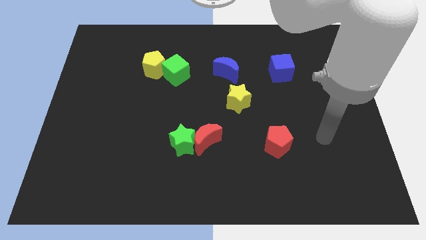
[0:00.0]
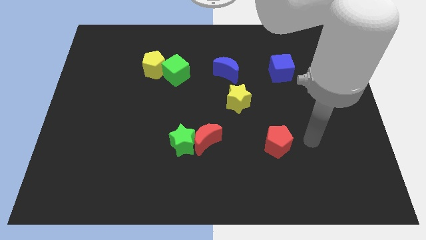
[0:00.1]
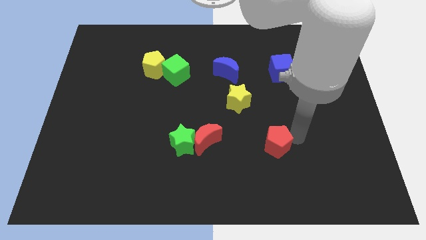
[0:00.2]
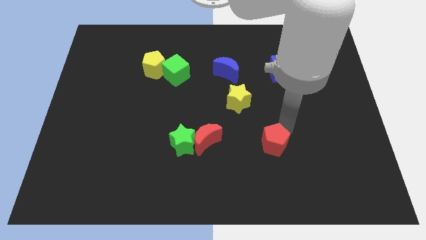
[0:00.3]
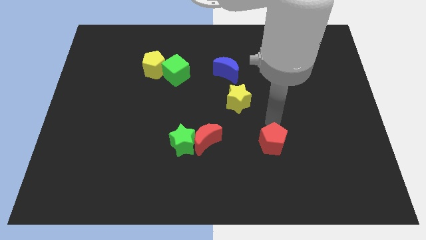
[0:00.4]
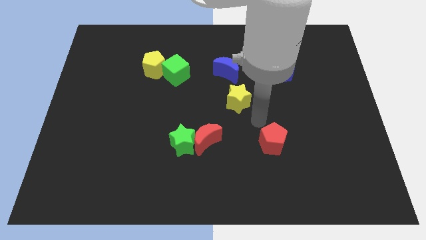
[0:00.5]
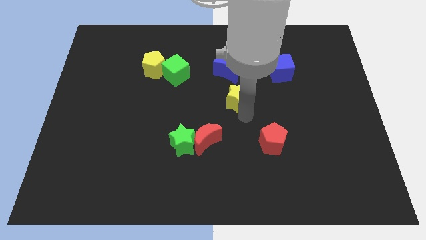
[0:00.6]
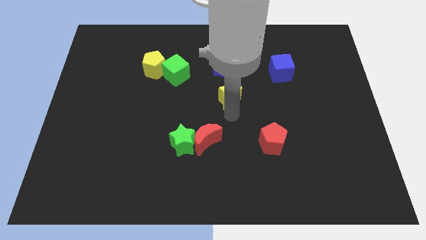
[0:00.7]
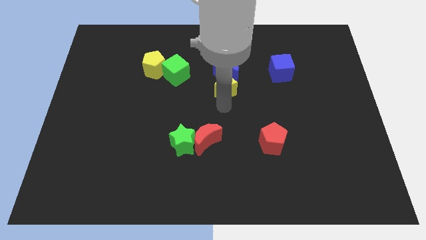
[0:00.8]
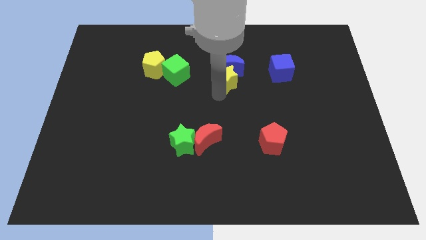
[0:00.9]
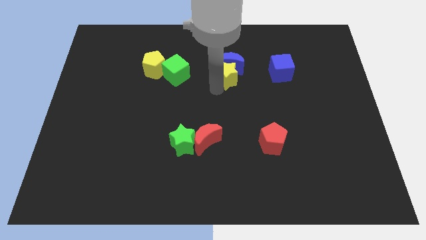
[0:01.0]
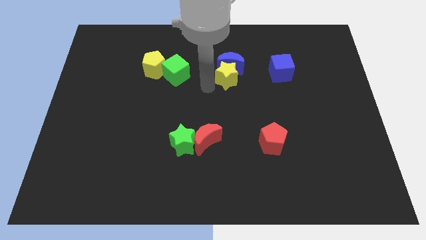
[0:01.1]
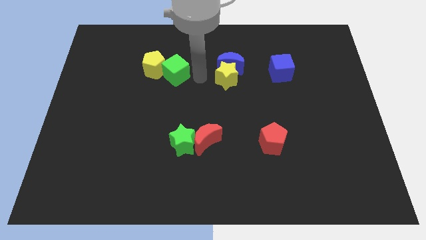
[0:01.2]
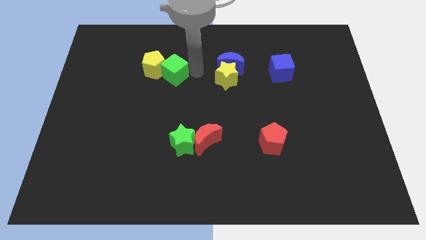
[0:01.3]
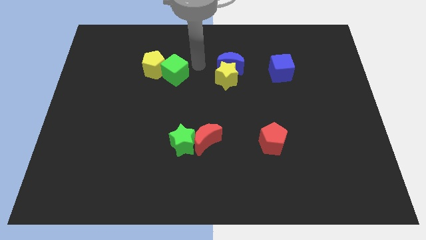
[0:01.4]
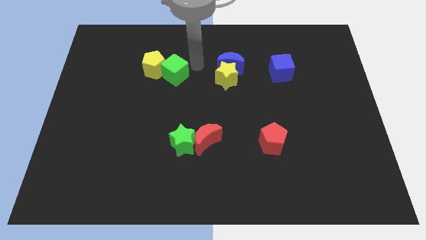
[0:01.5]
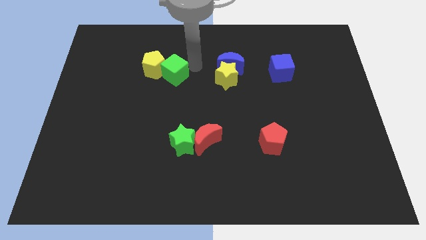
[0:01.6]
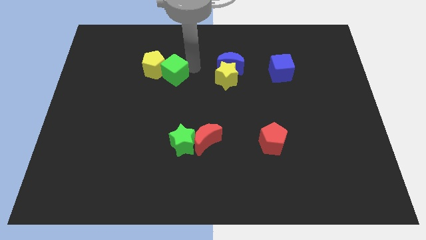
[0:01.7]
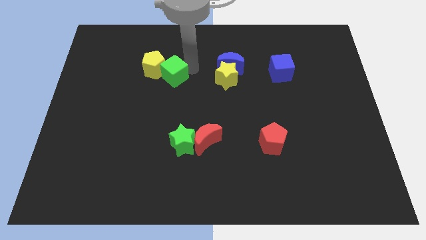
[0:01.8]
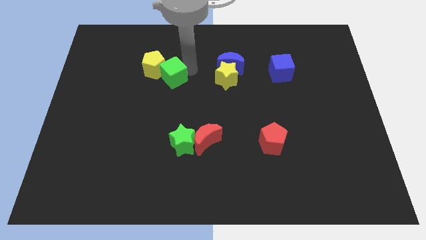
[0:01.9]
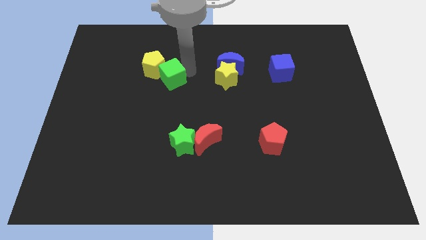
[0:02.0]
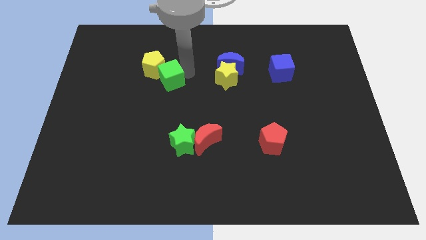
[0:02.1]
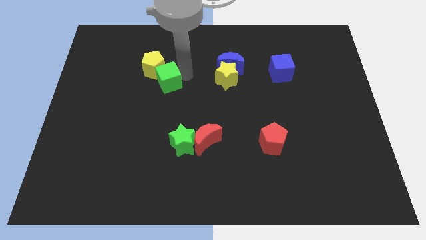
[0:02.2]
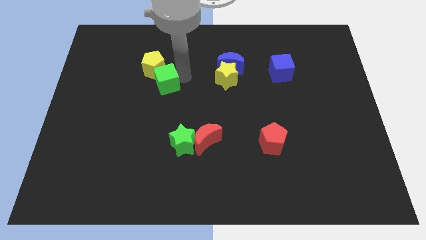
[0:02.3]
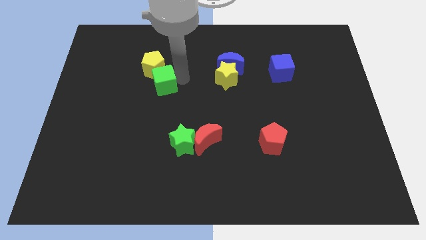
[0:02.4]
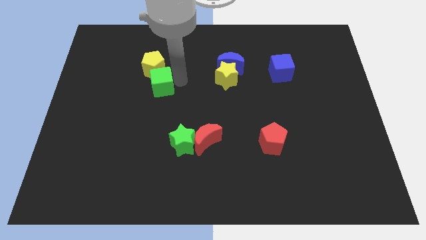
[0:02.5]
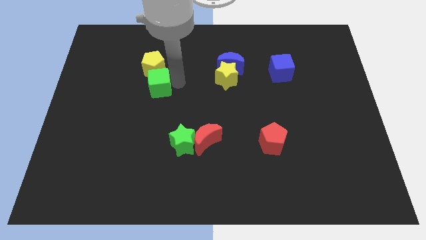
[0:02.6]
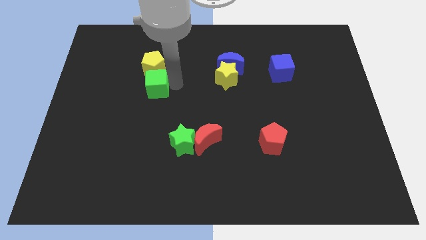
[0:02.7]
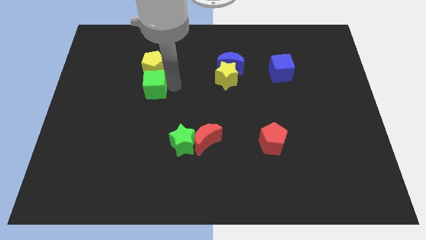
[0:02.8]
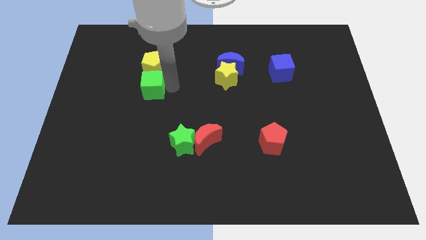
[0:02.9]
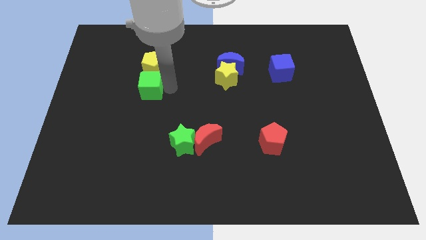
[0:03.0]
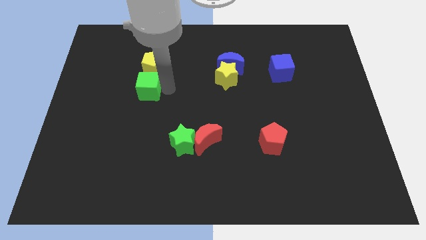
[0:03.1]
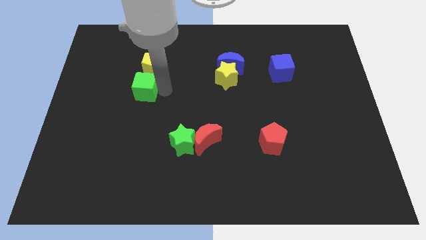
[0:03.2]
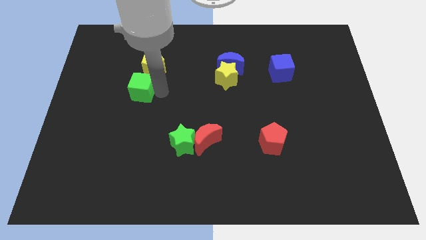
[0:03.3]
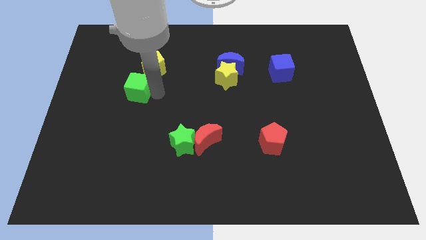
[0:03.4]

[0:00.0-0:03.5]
slightly slide the green cube to the left

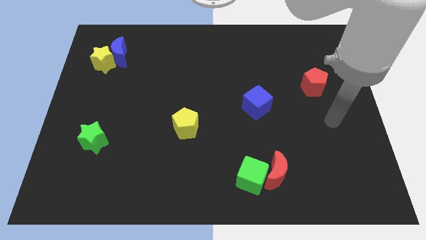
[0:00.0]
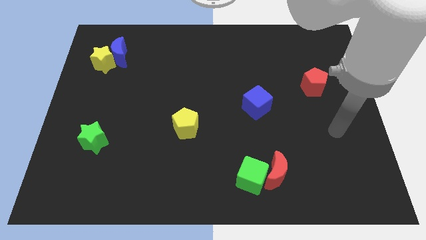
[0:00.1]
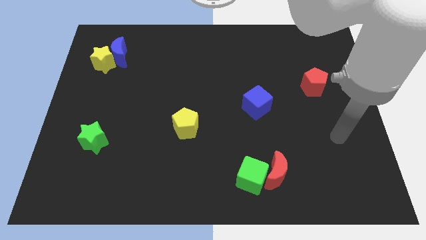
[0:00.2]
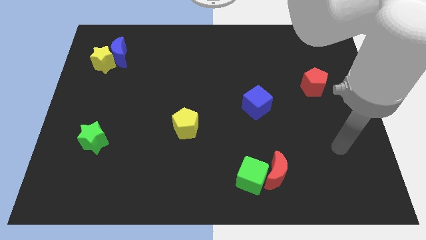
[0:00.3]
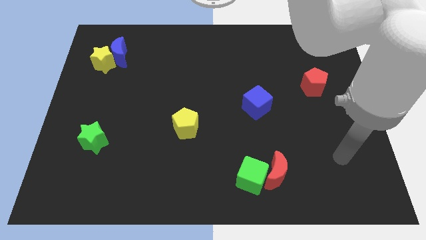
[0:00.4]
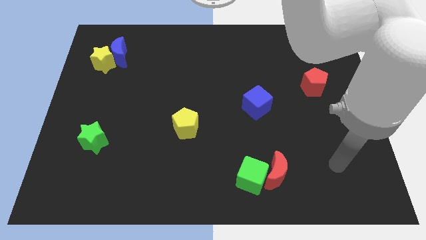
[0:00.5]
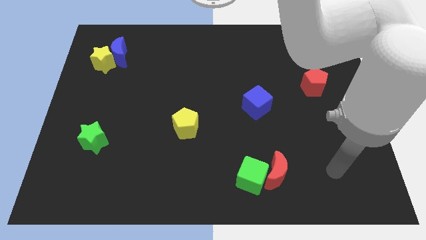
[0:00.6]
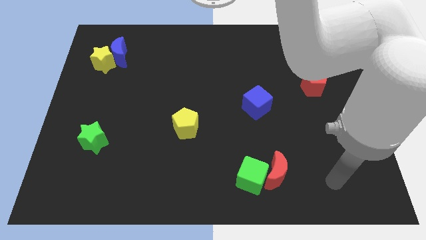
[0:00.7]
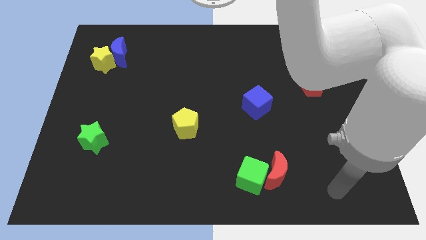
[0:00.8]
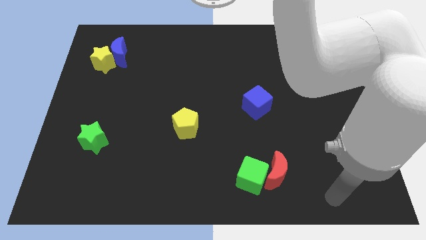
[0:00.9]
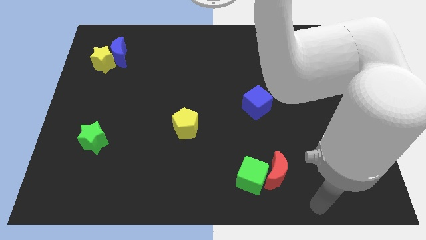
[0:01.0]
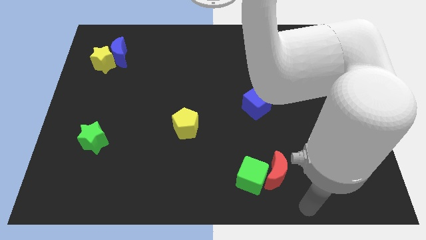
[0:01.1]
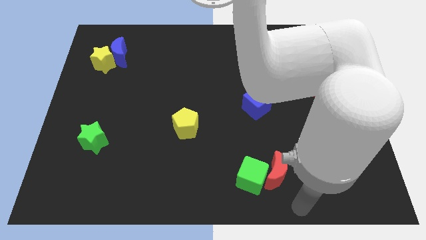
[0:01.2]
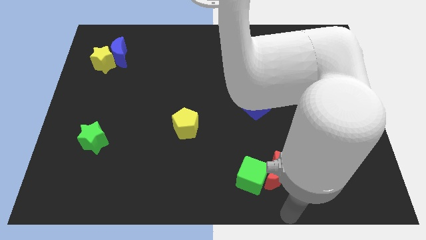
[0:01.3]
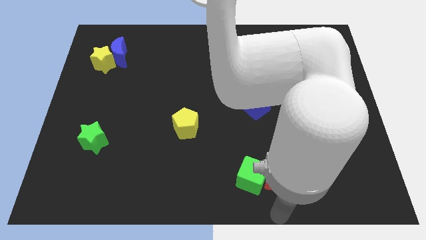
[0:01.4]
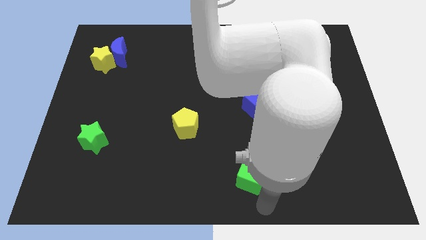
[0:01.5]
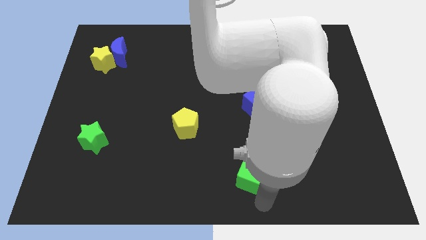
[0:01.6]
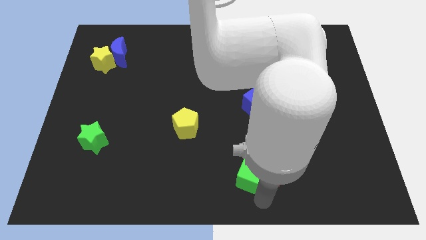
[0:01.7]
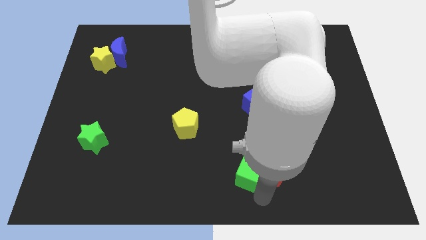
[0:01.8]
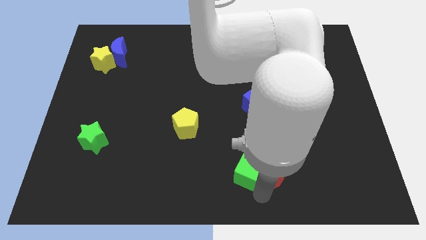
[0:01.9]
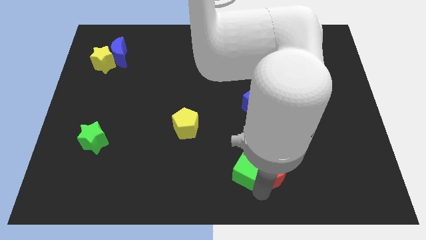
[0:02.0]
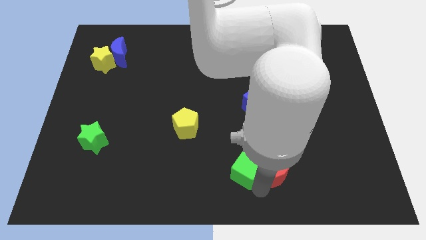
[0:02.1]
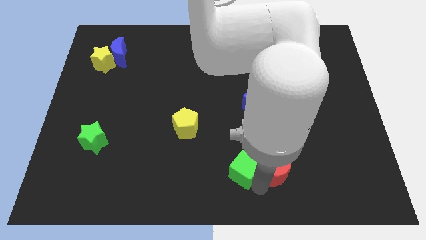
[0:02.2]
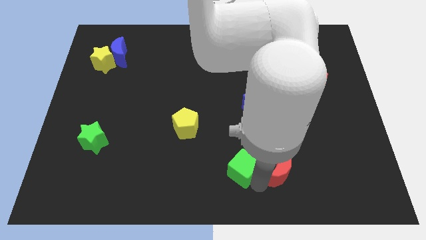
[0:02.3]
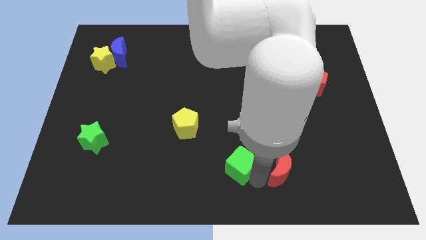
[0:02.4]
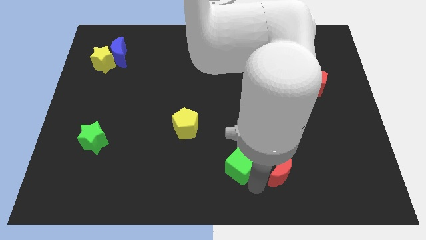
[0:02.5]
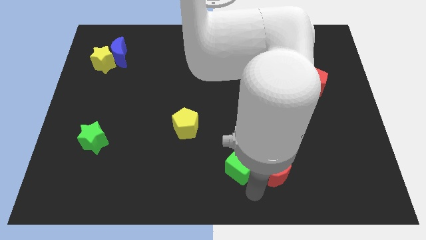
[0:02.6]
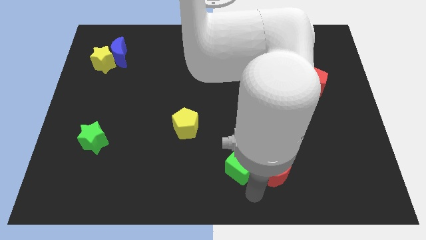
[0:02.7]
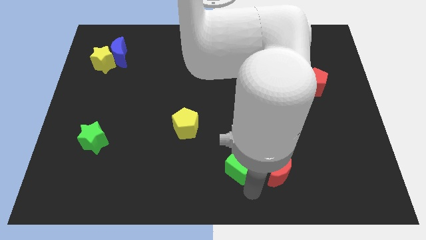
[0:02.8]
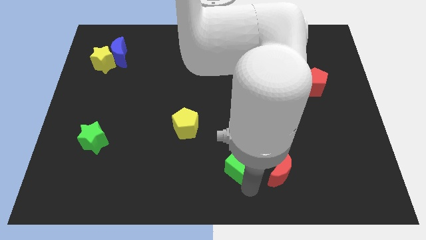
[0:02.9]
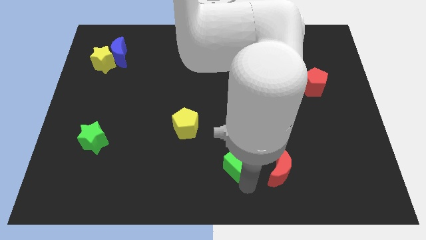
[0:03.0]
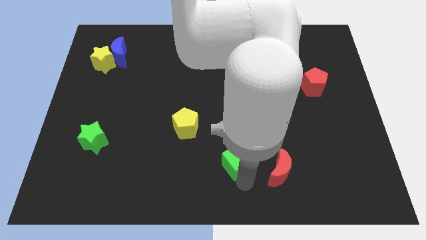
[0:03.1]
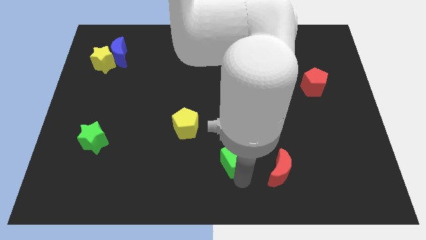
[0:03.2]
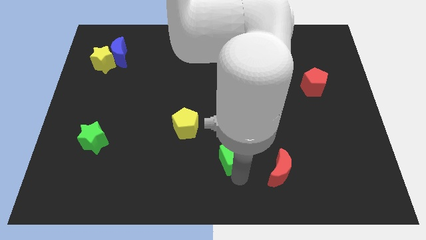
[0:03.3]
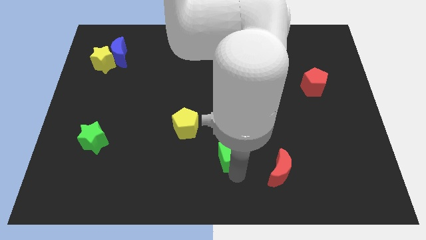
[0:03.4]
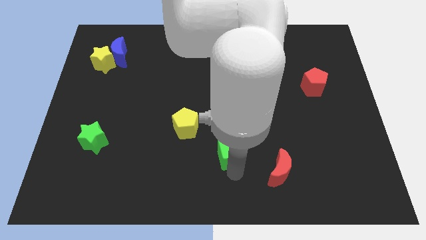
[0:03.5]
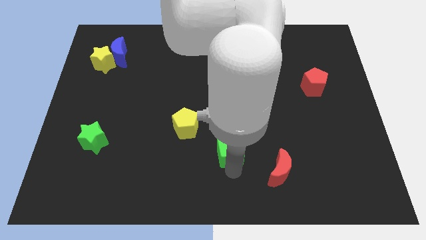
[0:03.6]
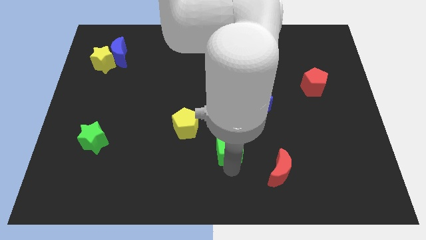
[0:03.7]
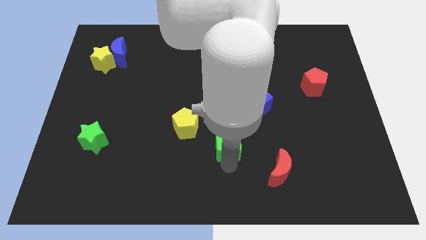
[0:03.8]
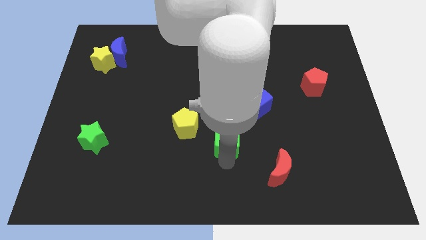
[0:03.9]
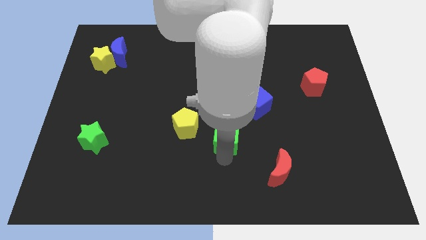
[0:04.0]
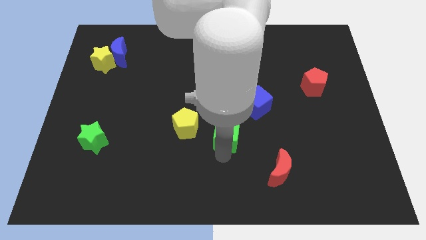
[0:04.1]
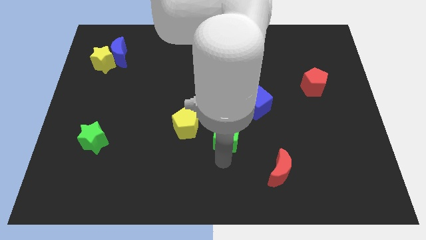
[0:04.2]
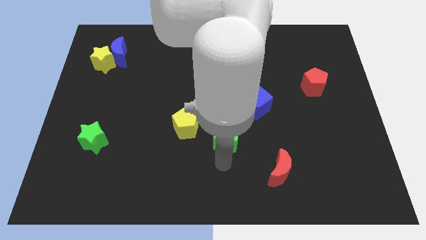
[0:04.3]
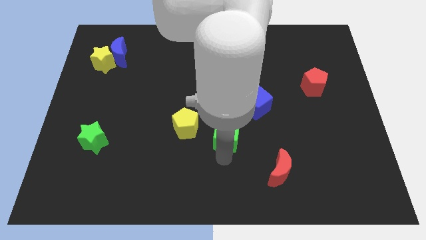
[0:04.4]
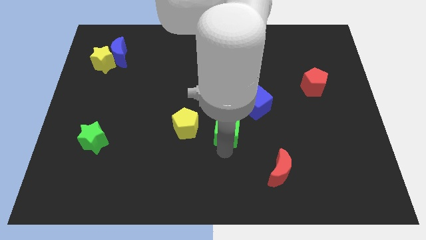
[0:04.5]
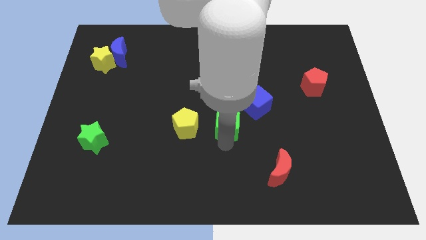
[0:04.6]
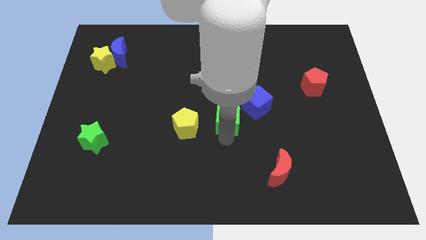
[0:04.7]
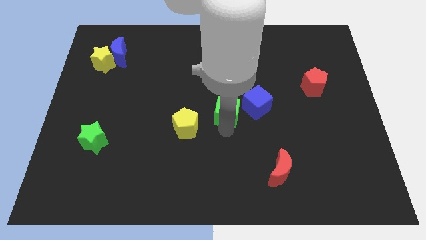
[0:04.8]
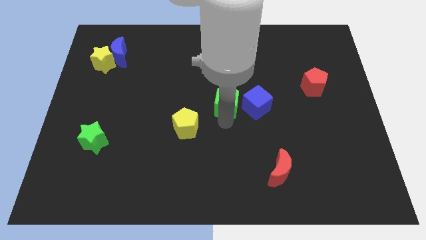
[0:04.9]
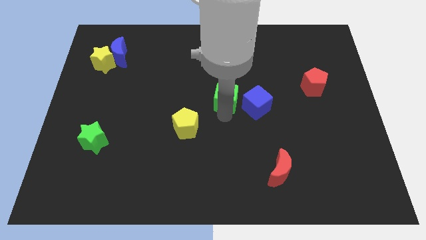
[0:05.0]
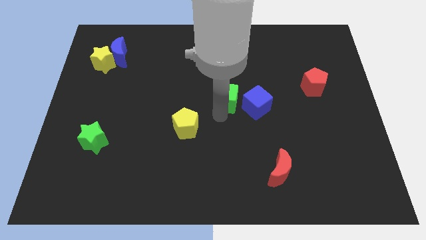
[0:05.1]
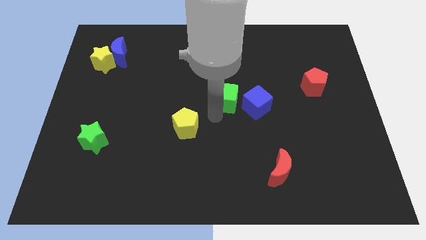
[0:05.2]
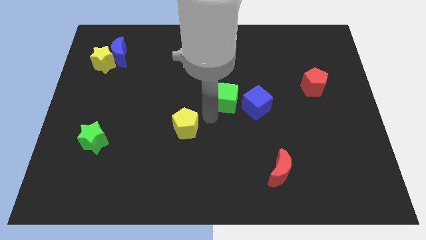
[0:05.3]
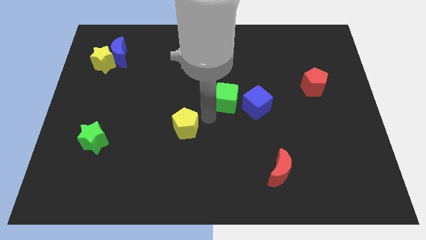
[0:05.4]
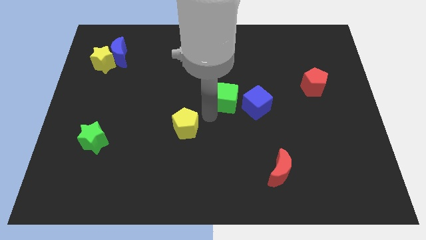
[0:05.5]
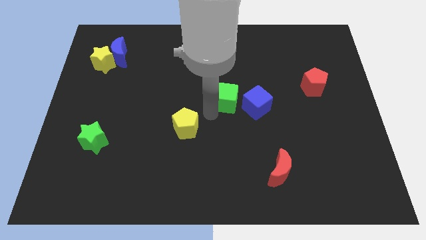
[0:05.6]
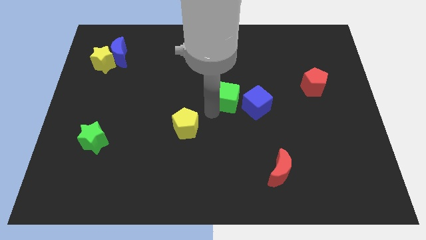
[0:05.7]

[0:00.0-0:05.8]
move the green cube upwards
